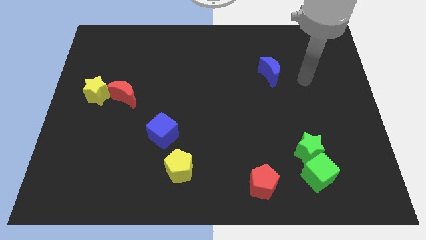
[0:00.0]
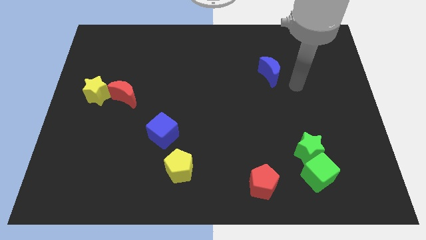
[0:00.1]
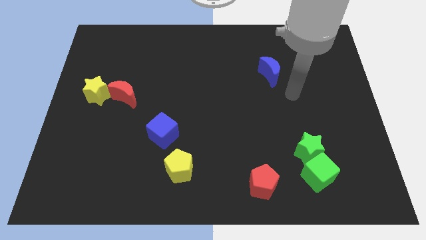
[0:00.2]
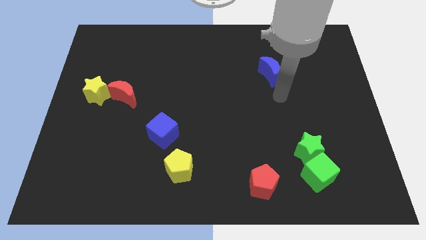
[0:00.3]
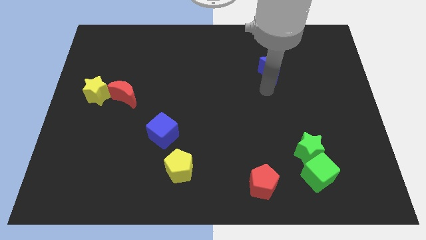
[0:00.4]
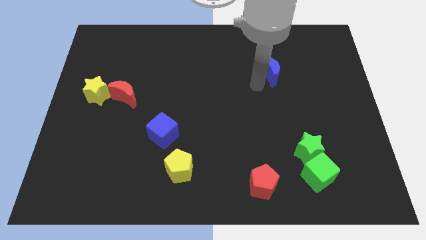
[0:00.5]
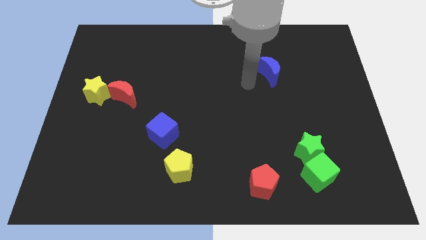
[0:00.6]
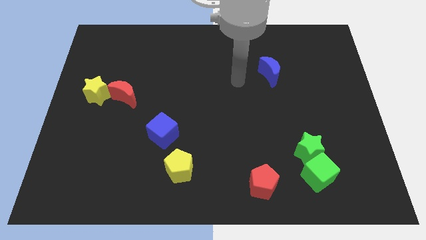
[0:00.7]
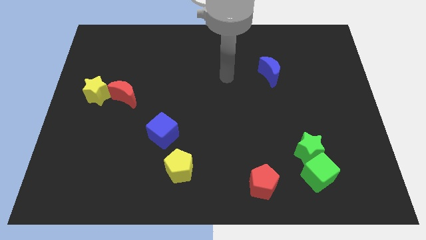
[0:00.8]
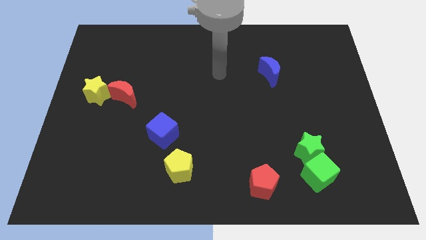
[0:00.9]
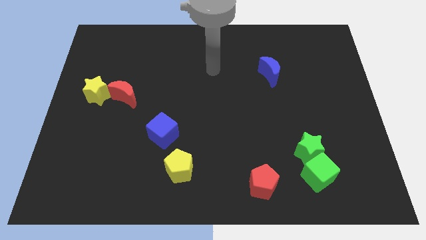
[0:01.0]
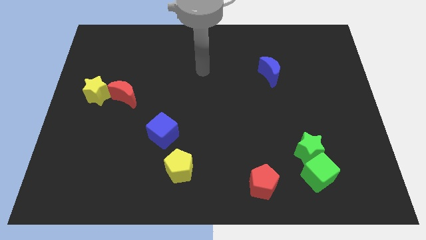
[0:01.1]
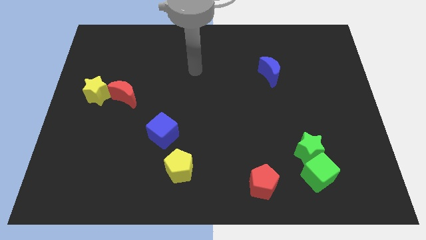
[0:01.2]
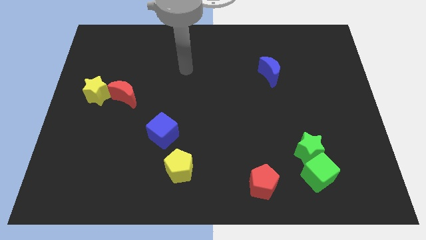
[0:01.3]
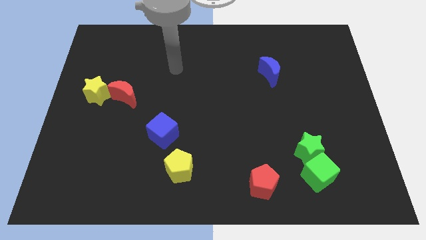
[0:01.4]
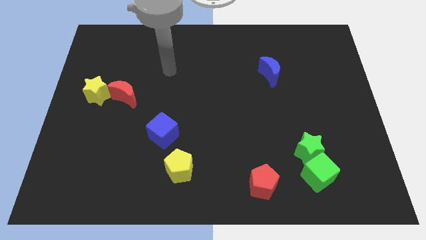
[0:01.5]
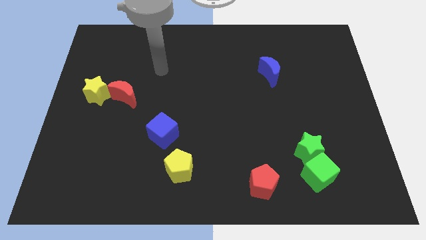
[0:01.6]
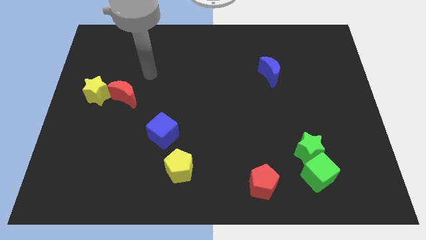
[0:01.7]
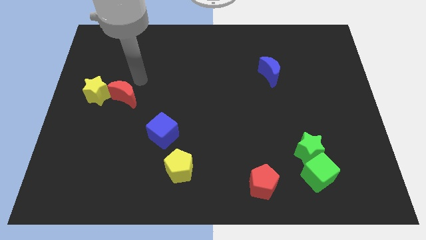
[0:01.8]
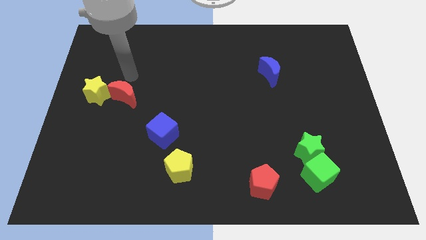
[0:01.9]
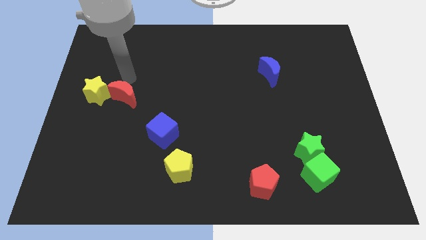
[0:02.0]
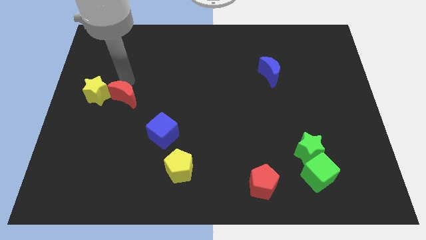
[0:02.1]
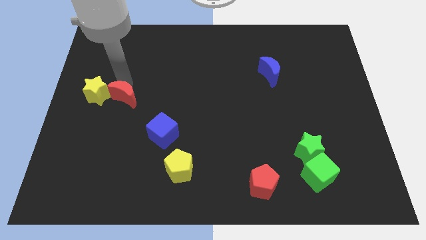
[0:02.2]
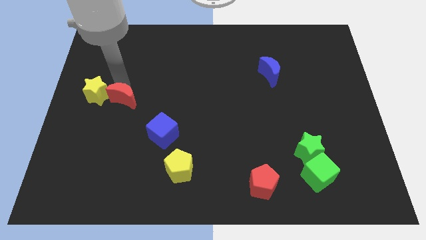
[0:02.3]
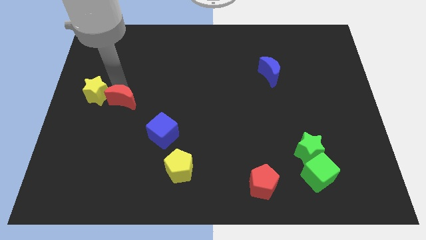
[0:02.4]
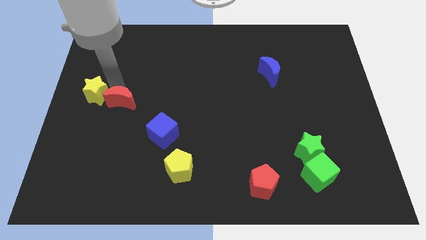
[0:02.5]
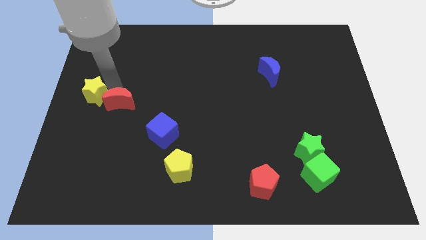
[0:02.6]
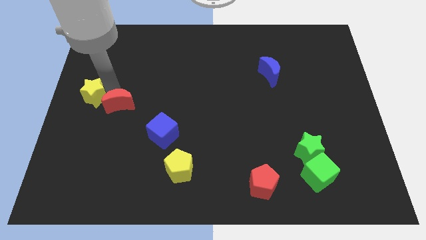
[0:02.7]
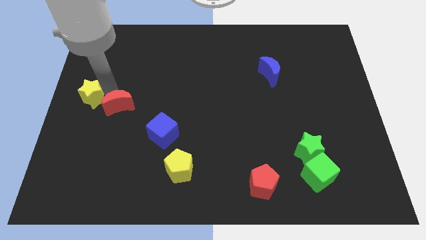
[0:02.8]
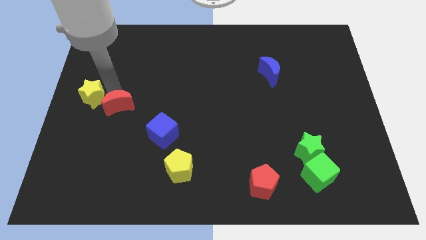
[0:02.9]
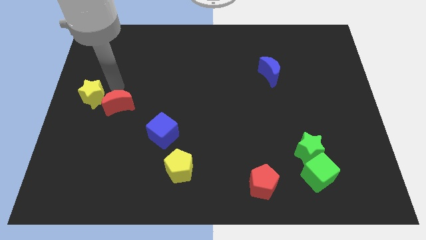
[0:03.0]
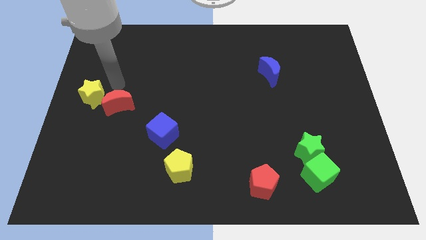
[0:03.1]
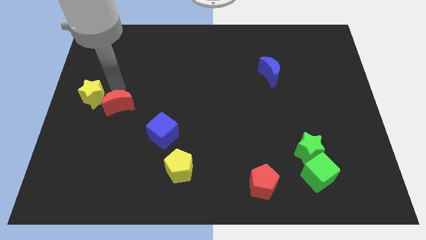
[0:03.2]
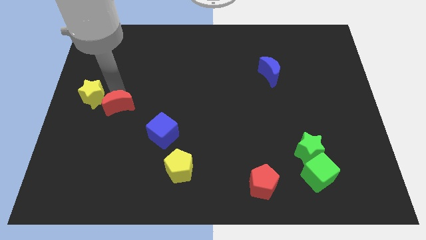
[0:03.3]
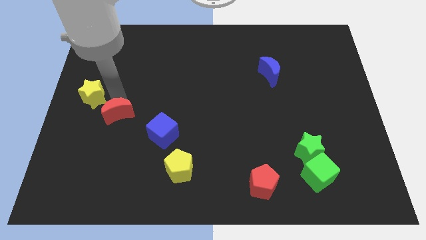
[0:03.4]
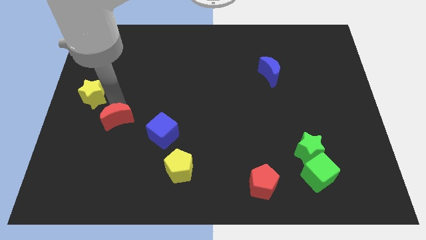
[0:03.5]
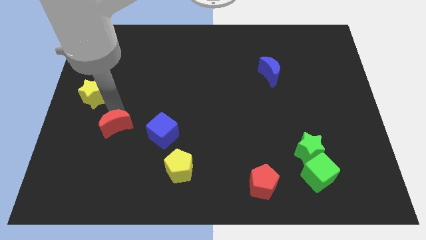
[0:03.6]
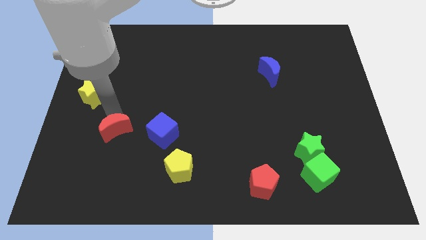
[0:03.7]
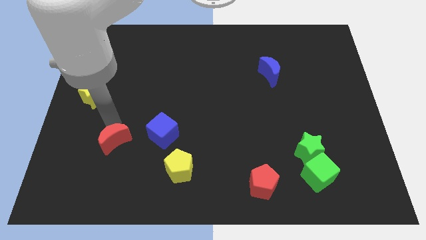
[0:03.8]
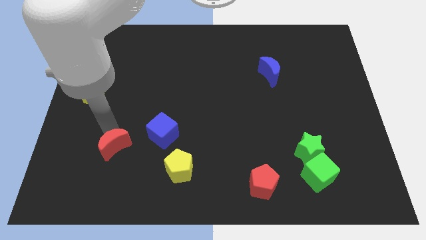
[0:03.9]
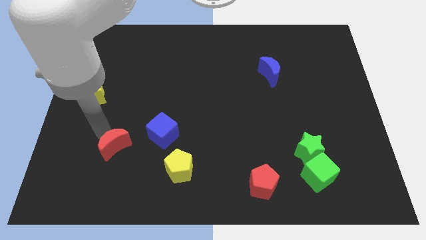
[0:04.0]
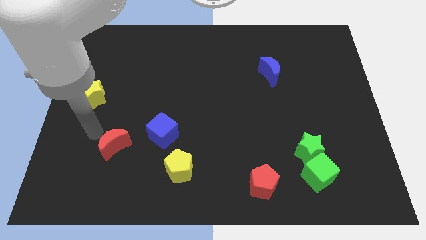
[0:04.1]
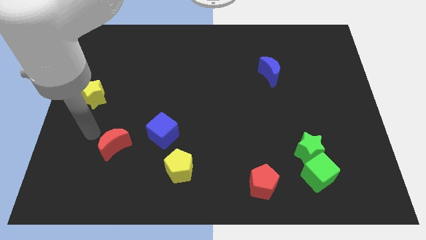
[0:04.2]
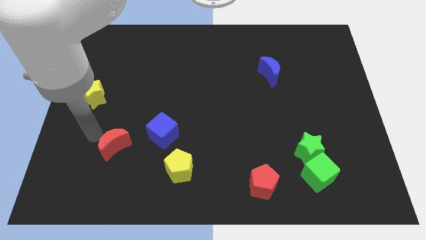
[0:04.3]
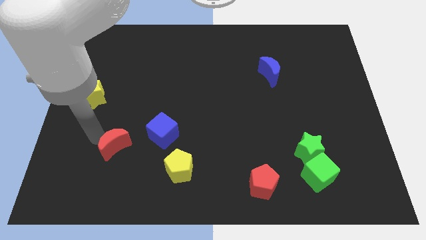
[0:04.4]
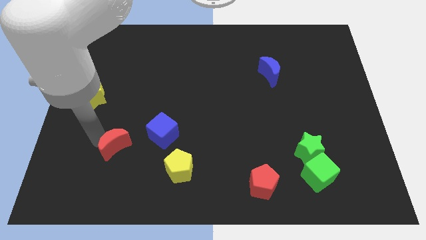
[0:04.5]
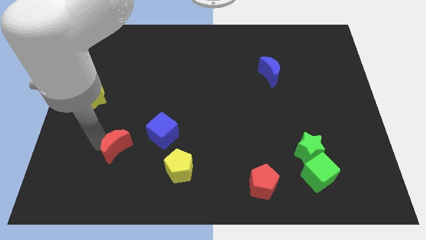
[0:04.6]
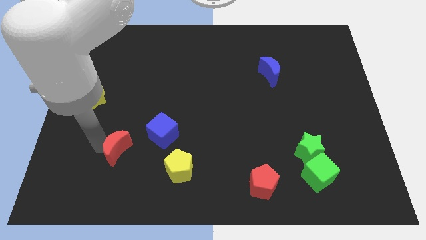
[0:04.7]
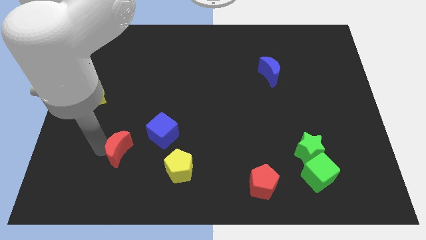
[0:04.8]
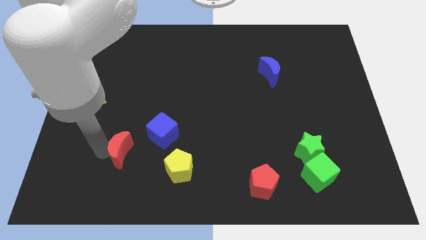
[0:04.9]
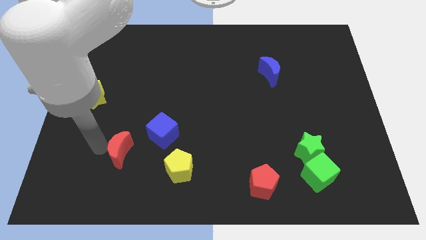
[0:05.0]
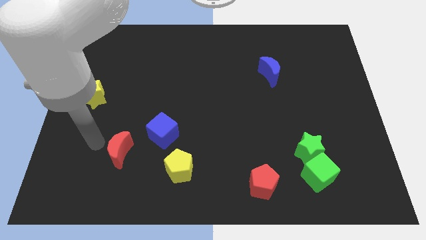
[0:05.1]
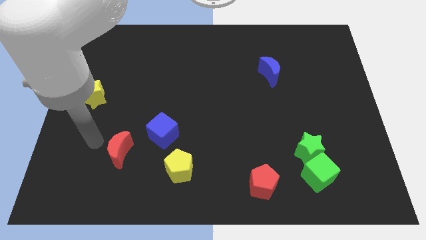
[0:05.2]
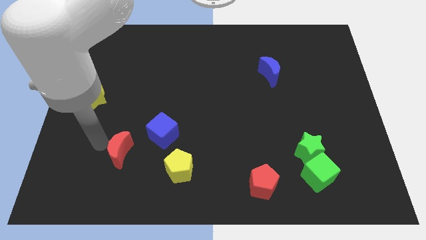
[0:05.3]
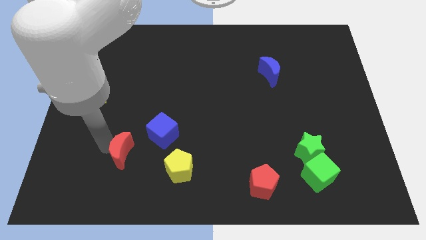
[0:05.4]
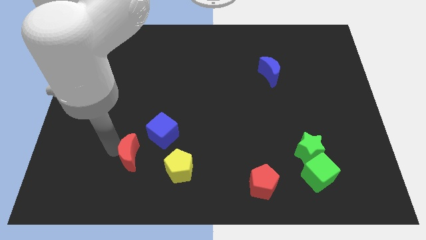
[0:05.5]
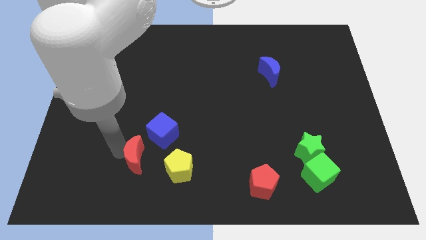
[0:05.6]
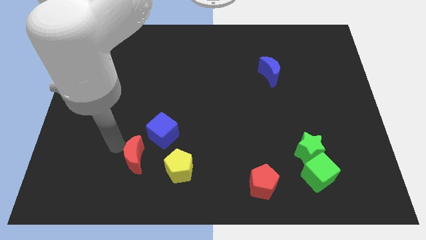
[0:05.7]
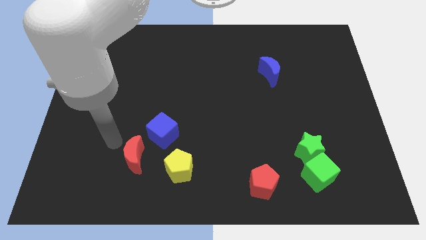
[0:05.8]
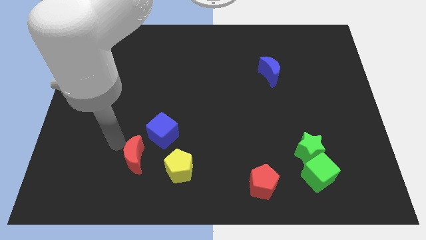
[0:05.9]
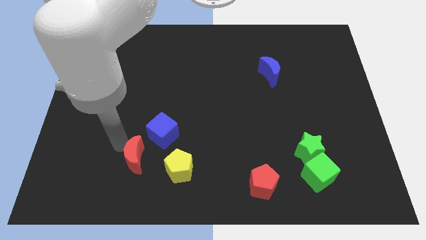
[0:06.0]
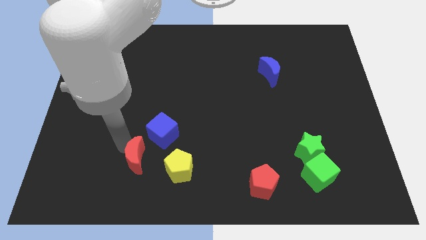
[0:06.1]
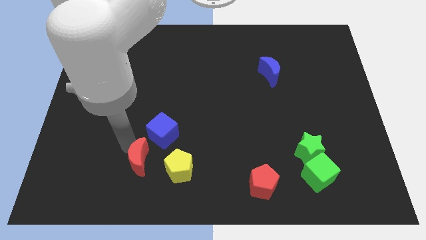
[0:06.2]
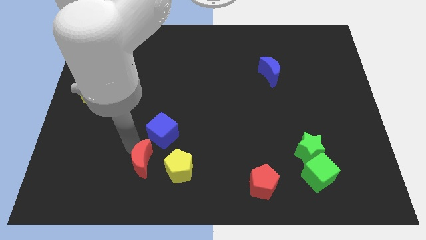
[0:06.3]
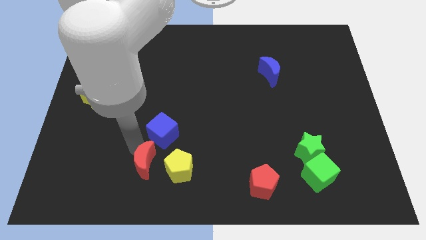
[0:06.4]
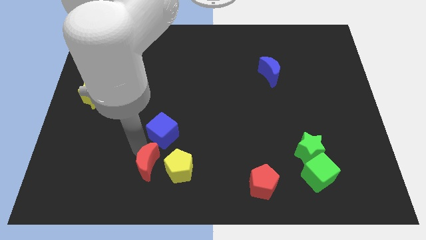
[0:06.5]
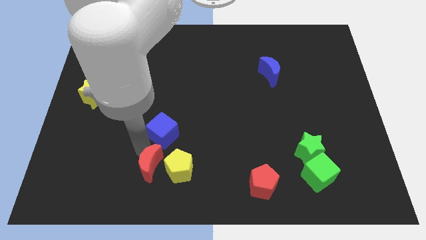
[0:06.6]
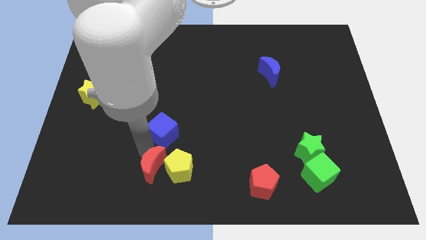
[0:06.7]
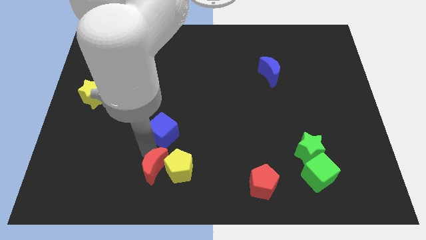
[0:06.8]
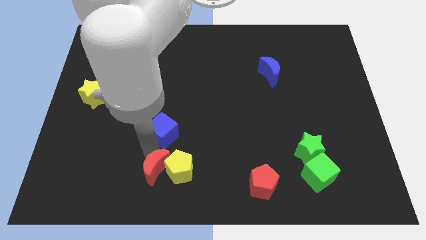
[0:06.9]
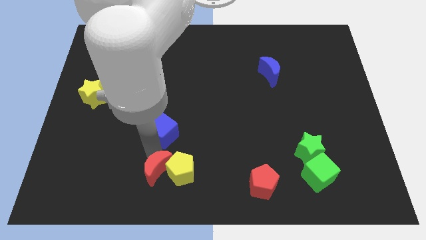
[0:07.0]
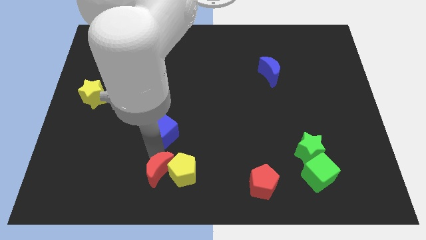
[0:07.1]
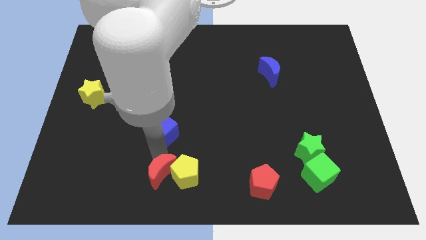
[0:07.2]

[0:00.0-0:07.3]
put the red moon to the bottom side
